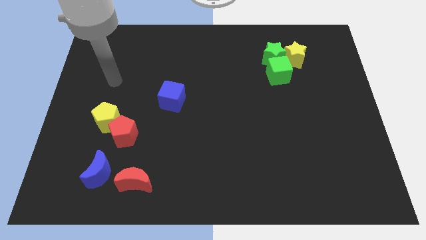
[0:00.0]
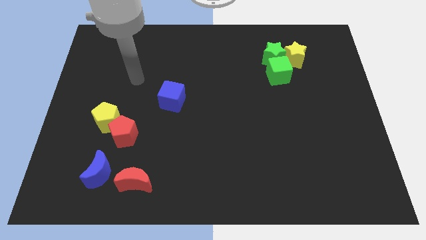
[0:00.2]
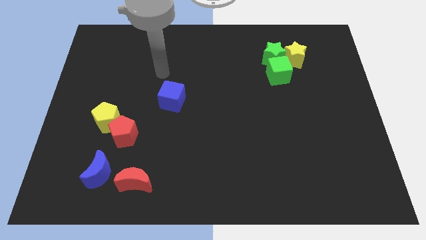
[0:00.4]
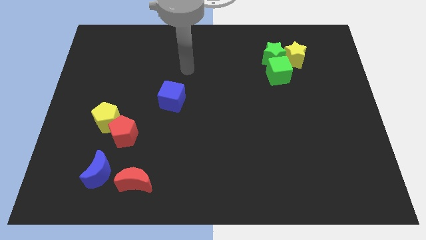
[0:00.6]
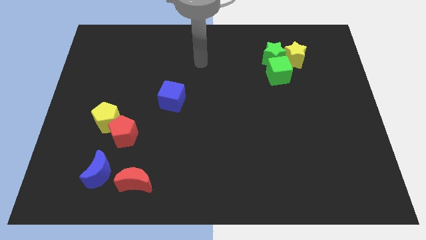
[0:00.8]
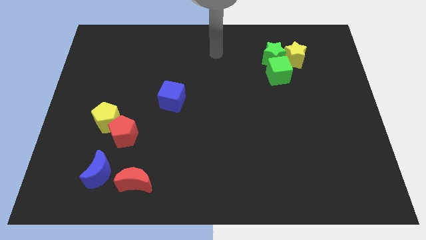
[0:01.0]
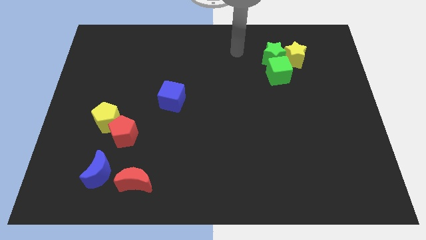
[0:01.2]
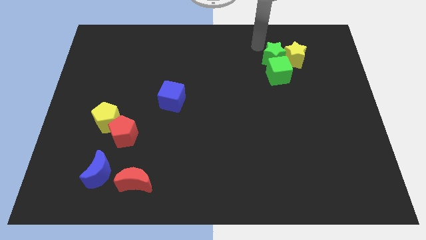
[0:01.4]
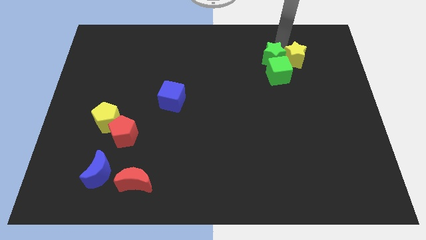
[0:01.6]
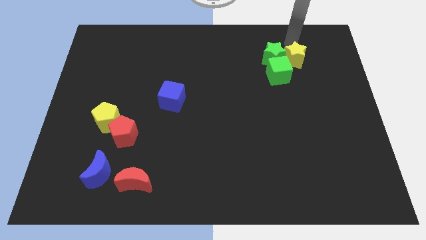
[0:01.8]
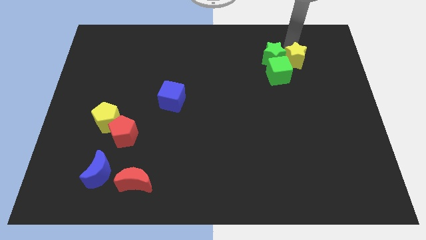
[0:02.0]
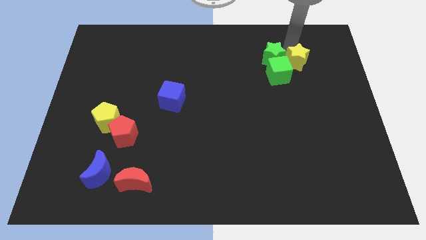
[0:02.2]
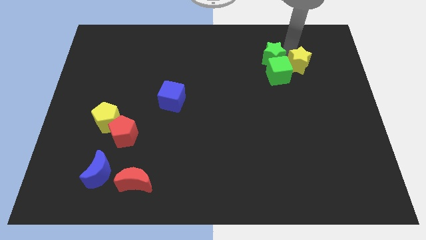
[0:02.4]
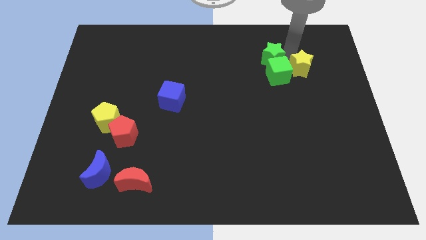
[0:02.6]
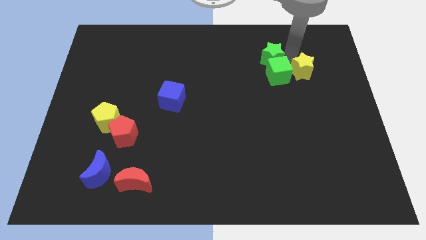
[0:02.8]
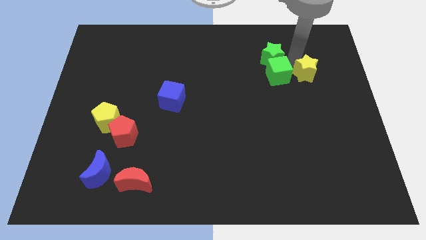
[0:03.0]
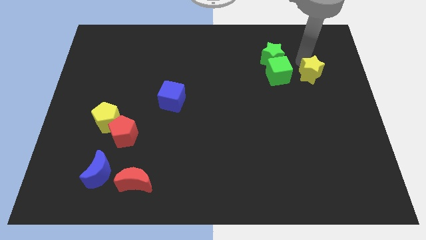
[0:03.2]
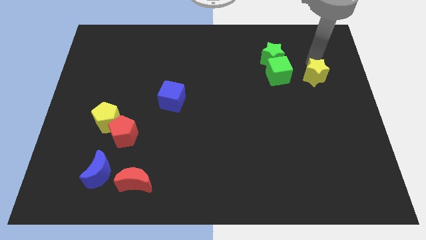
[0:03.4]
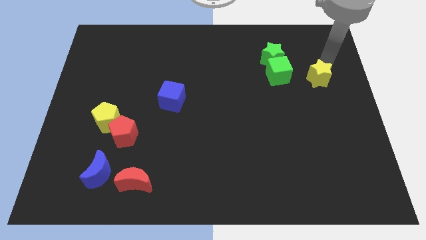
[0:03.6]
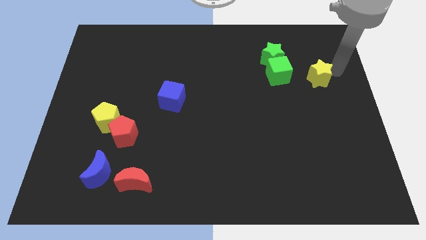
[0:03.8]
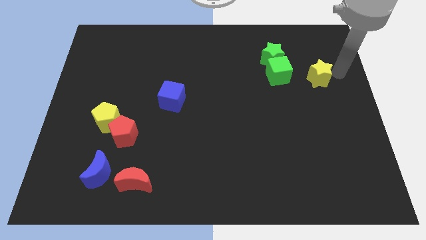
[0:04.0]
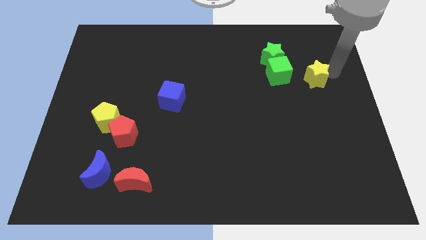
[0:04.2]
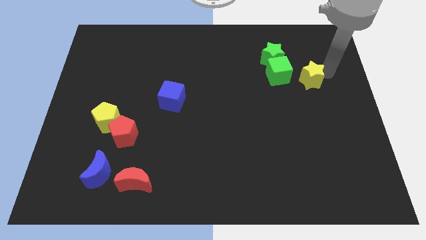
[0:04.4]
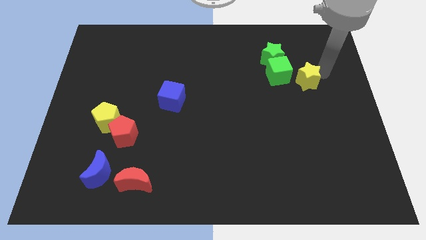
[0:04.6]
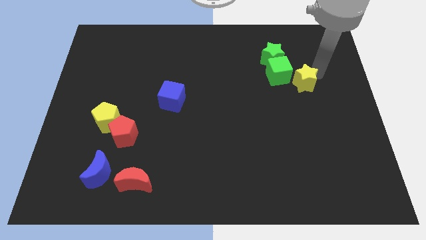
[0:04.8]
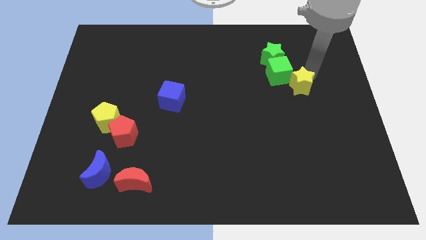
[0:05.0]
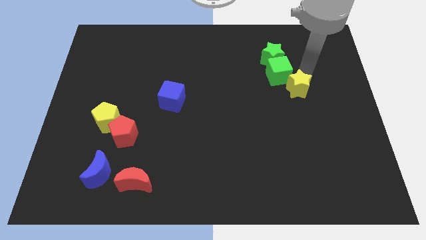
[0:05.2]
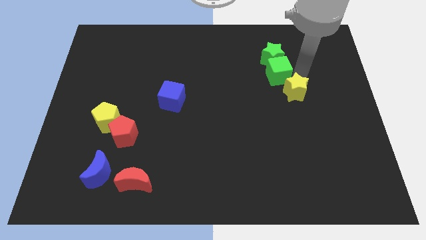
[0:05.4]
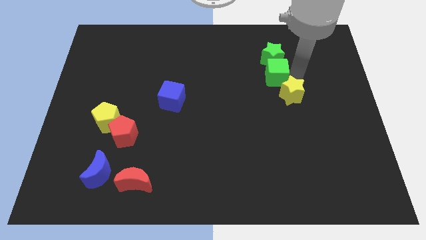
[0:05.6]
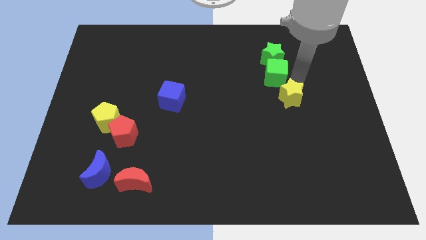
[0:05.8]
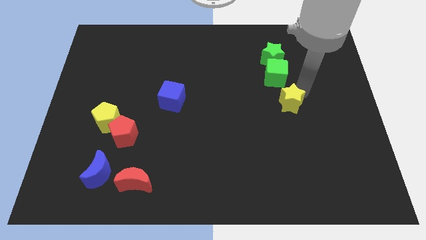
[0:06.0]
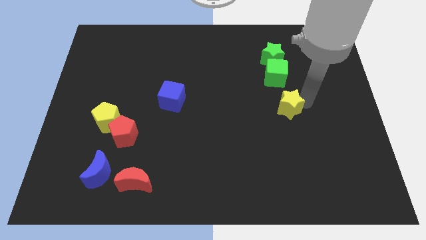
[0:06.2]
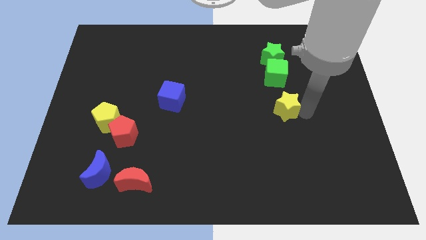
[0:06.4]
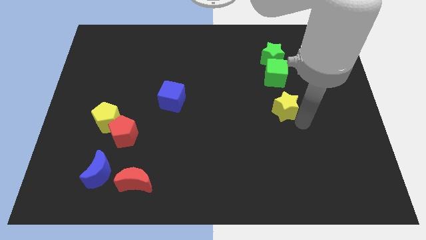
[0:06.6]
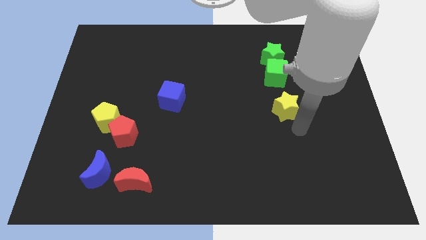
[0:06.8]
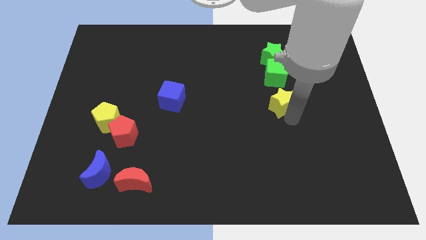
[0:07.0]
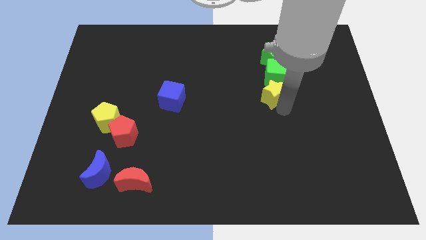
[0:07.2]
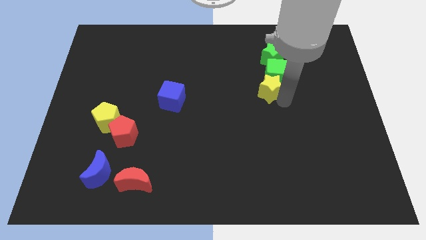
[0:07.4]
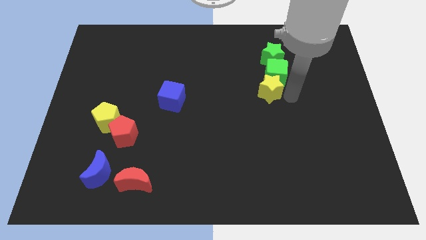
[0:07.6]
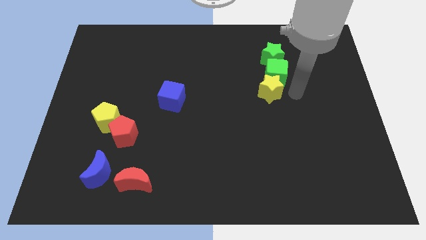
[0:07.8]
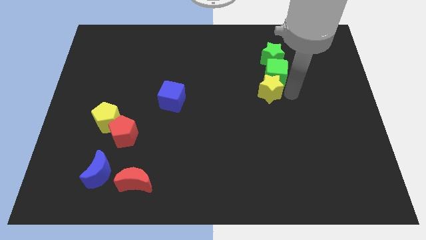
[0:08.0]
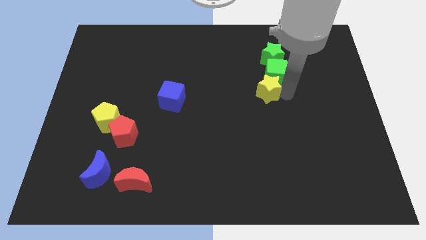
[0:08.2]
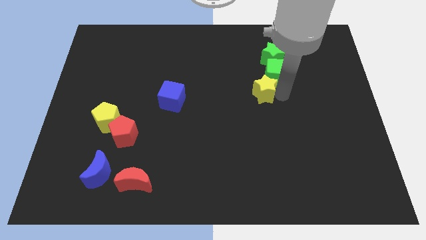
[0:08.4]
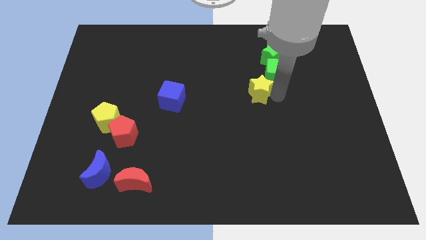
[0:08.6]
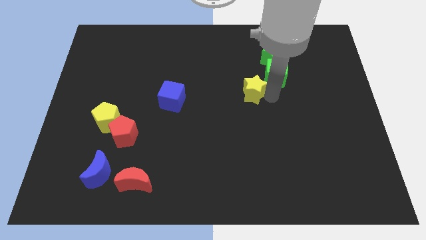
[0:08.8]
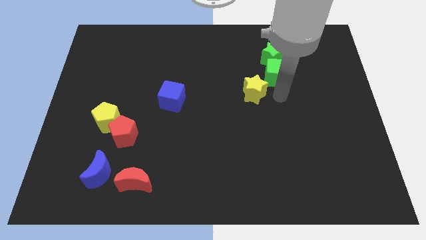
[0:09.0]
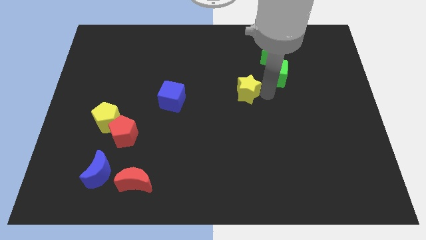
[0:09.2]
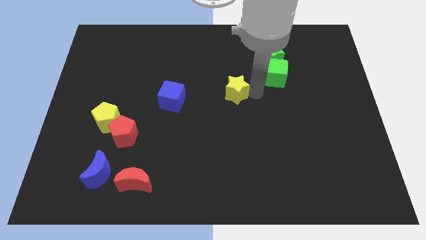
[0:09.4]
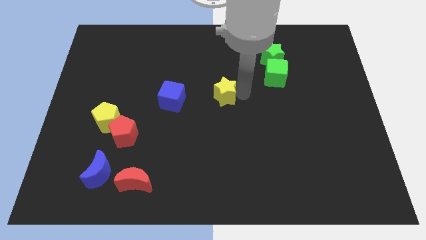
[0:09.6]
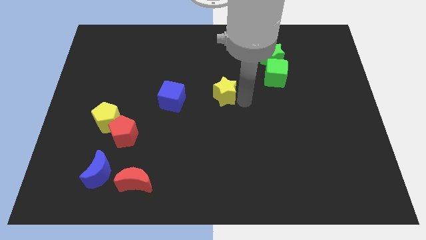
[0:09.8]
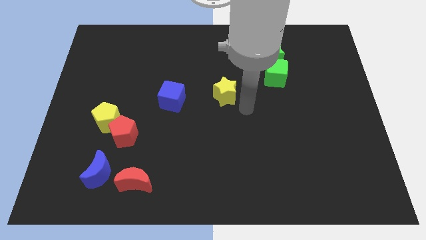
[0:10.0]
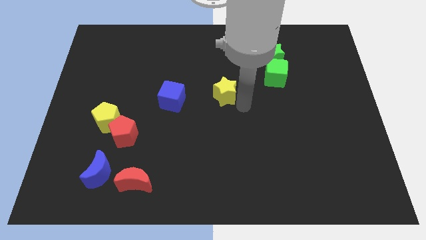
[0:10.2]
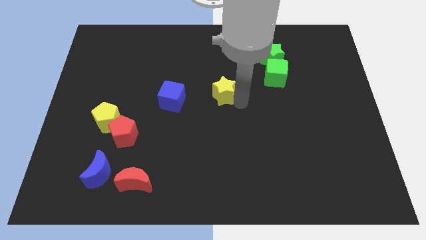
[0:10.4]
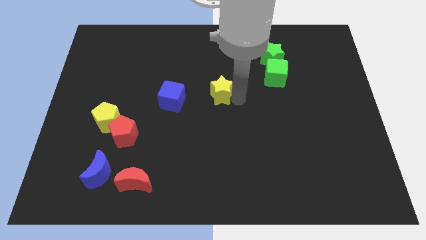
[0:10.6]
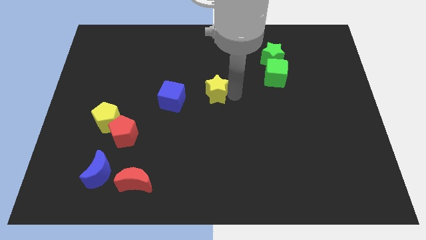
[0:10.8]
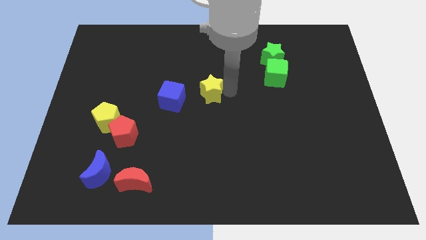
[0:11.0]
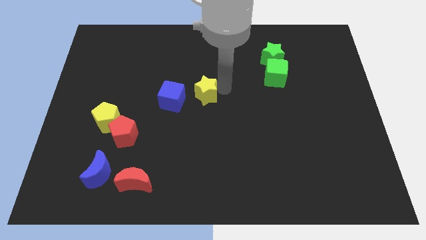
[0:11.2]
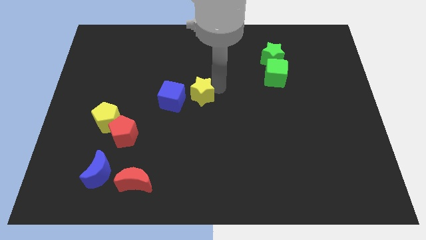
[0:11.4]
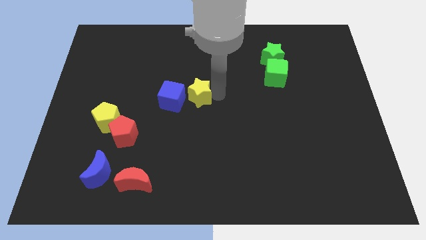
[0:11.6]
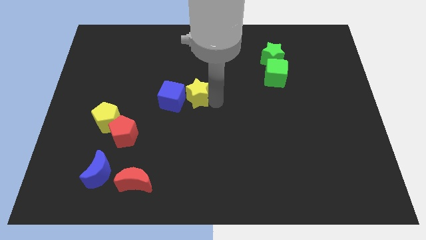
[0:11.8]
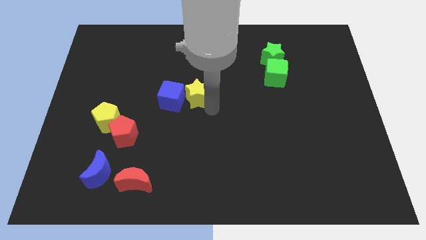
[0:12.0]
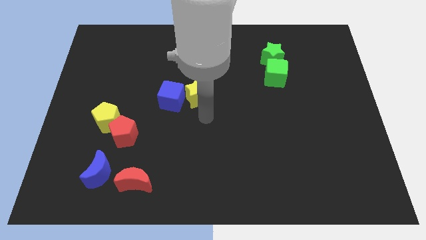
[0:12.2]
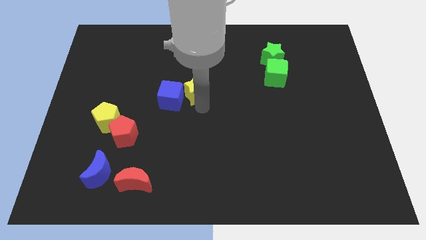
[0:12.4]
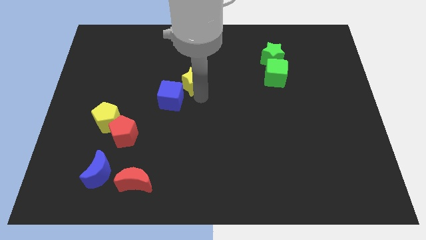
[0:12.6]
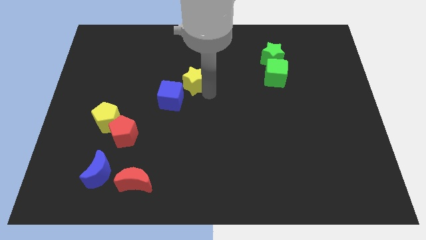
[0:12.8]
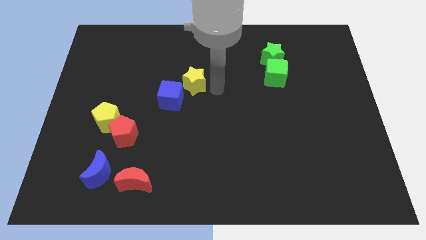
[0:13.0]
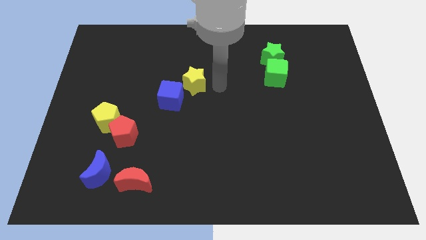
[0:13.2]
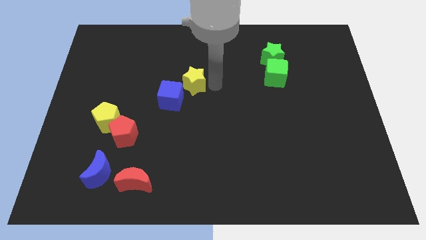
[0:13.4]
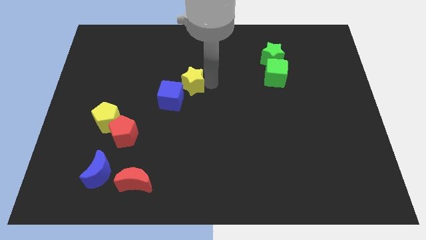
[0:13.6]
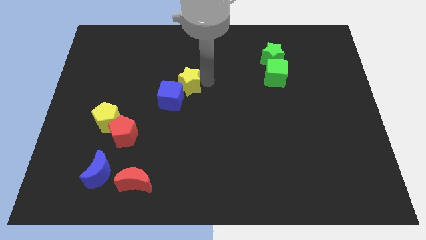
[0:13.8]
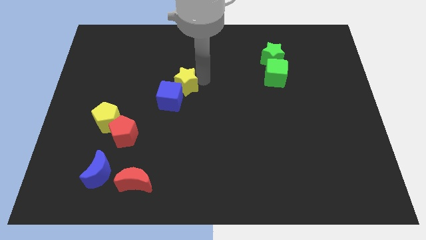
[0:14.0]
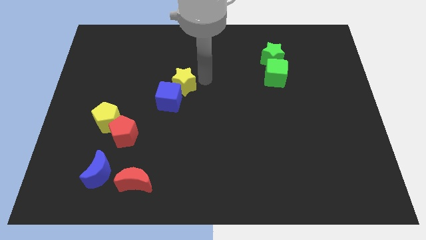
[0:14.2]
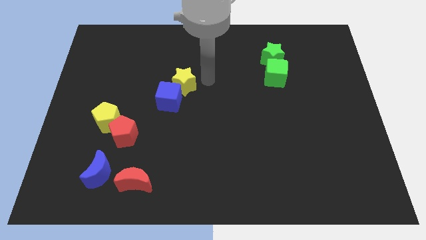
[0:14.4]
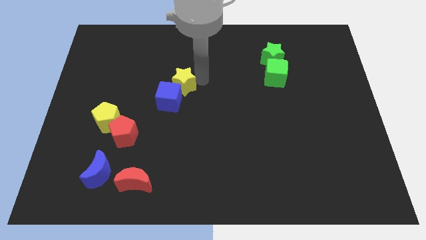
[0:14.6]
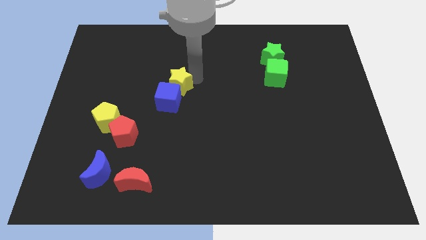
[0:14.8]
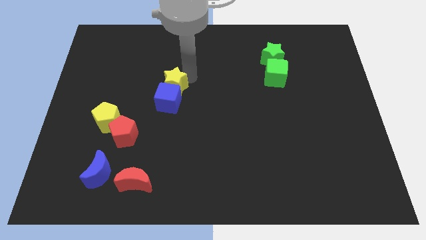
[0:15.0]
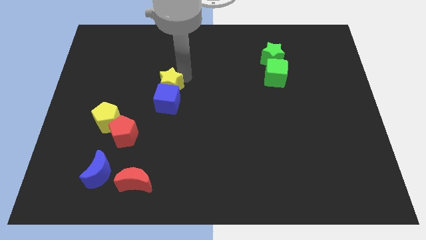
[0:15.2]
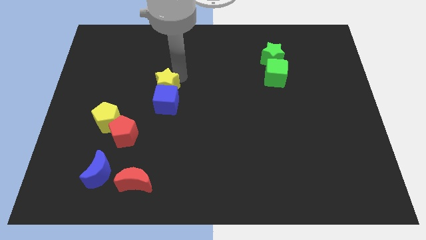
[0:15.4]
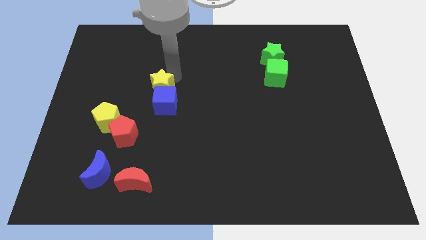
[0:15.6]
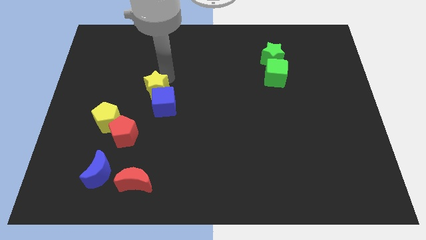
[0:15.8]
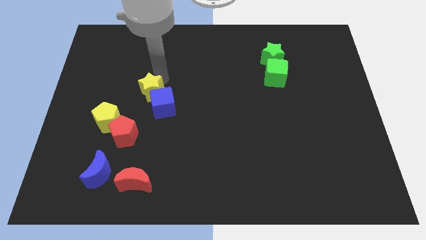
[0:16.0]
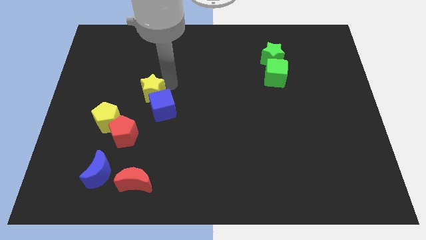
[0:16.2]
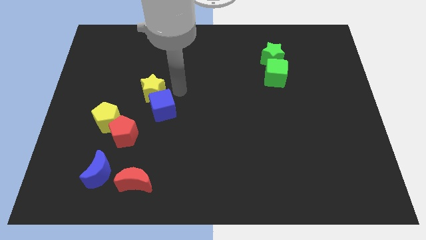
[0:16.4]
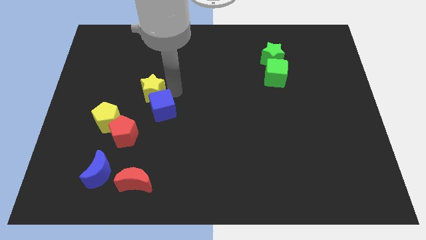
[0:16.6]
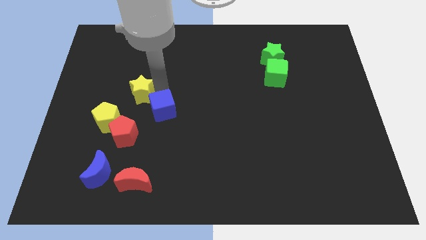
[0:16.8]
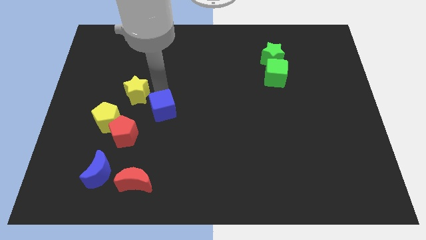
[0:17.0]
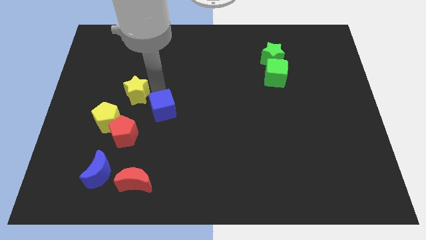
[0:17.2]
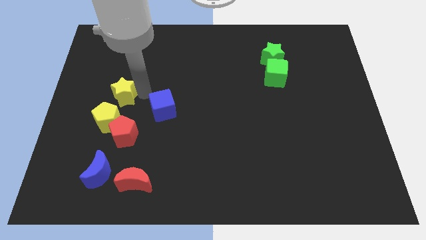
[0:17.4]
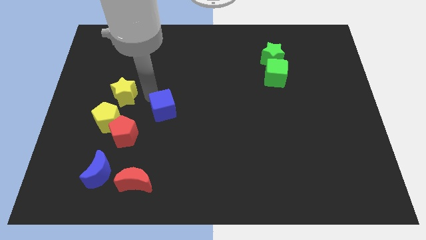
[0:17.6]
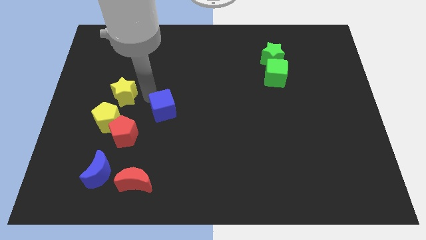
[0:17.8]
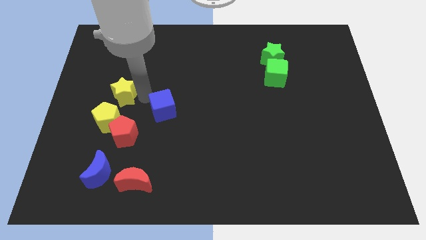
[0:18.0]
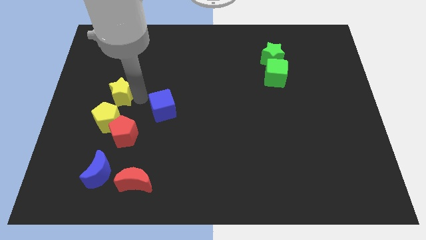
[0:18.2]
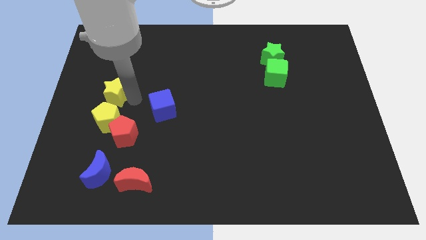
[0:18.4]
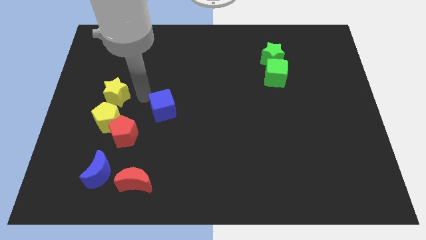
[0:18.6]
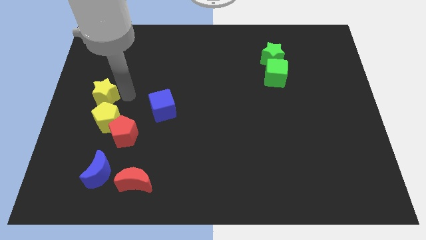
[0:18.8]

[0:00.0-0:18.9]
push the yellow star to the center left
